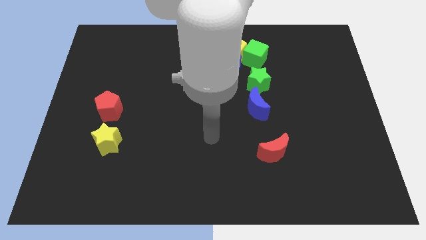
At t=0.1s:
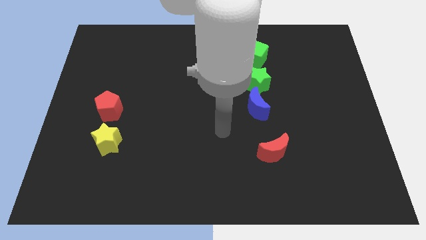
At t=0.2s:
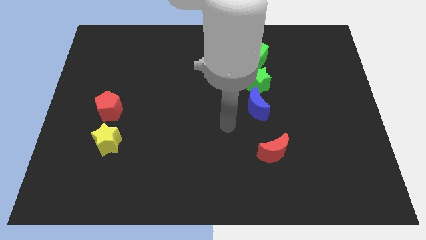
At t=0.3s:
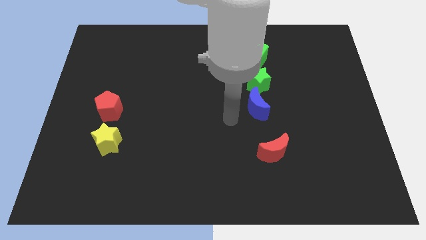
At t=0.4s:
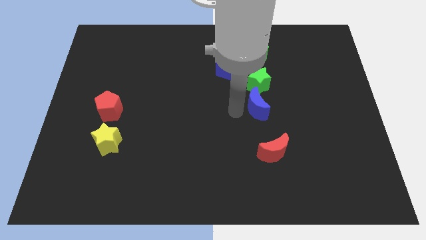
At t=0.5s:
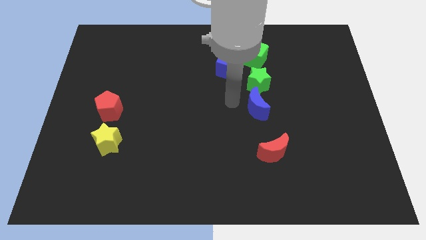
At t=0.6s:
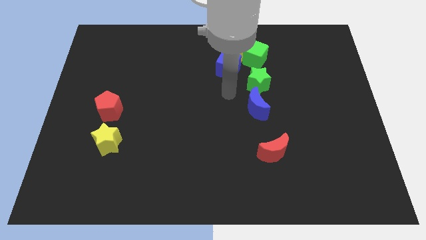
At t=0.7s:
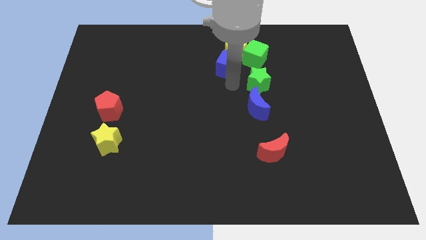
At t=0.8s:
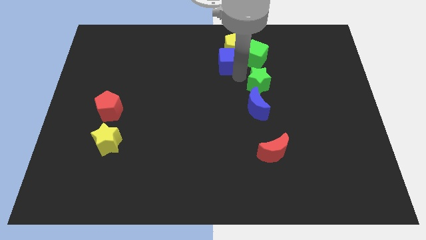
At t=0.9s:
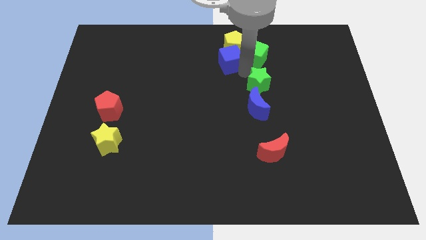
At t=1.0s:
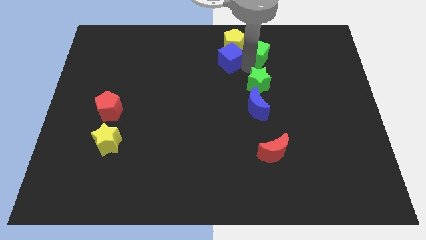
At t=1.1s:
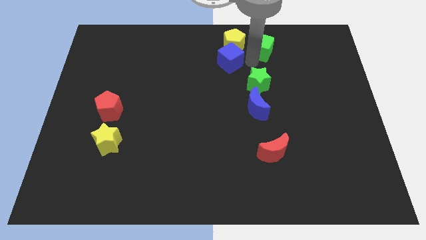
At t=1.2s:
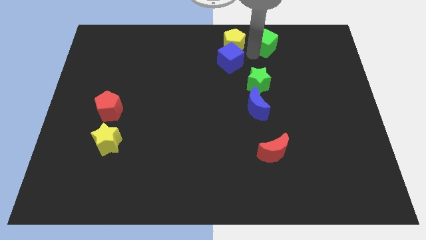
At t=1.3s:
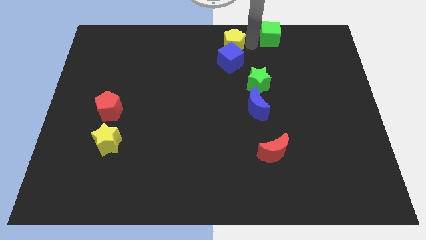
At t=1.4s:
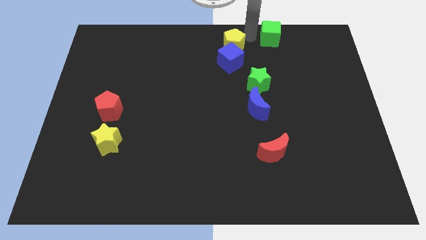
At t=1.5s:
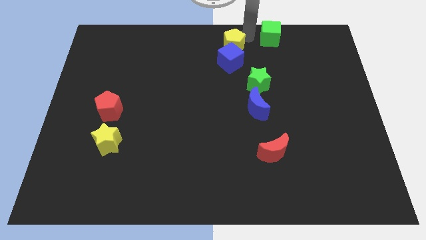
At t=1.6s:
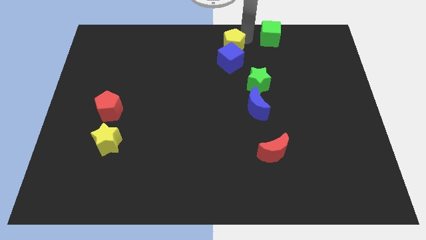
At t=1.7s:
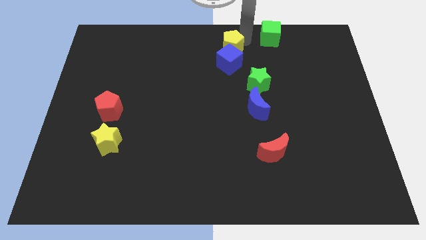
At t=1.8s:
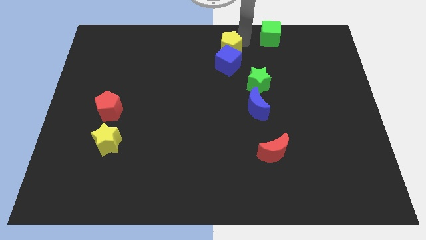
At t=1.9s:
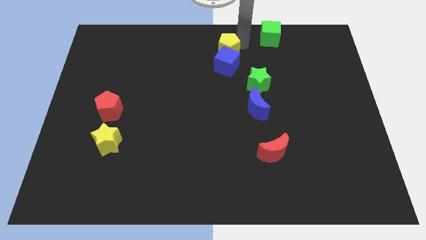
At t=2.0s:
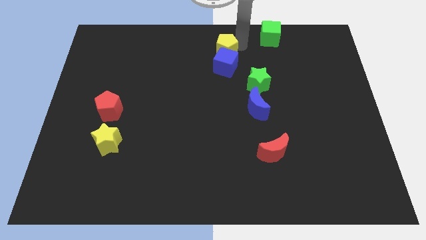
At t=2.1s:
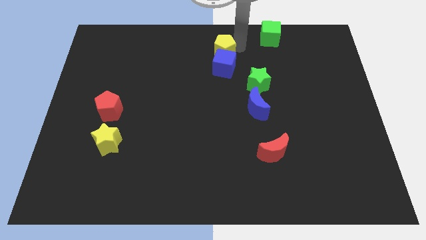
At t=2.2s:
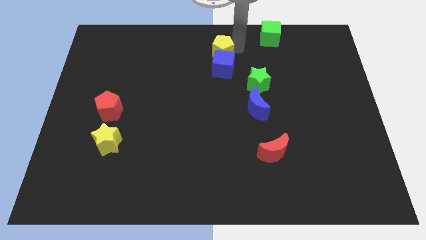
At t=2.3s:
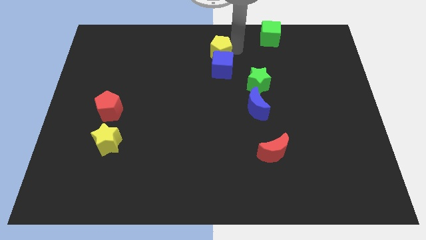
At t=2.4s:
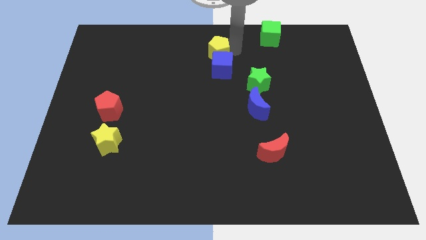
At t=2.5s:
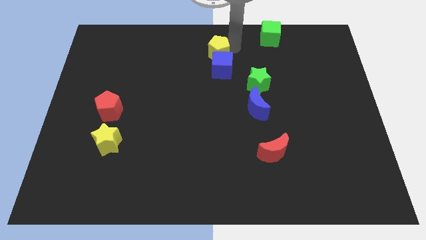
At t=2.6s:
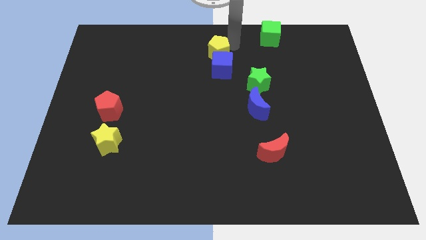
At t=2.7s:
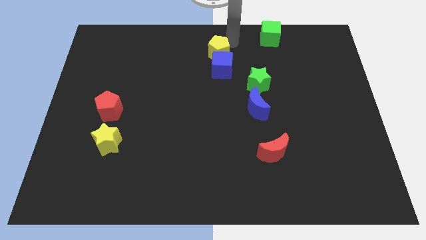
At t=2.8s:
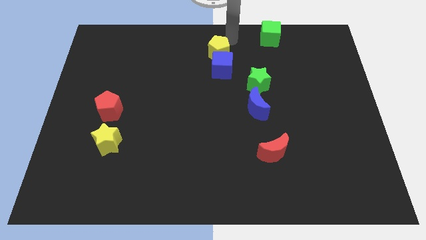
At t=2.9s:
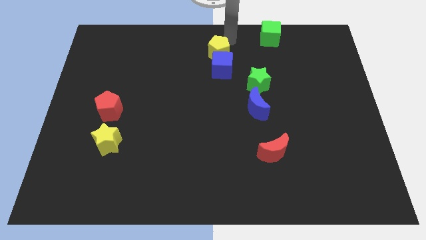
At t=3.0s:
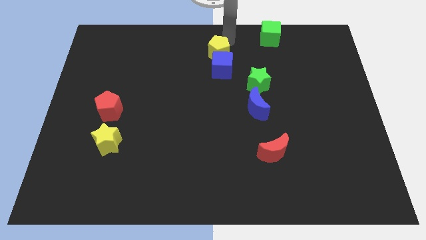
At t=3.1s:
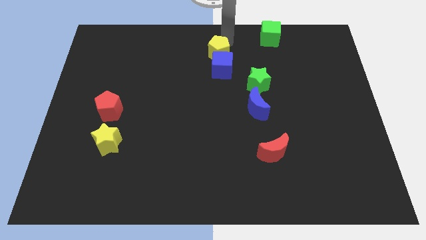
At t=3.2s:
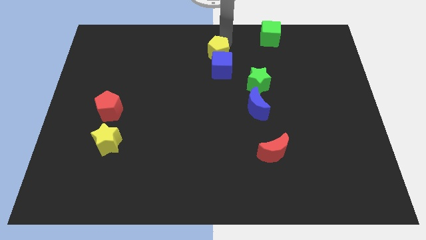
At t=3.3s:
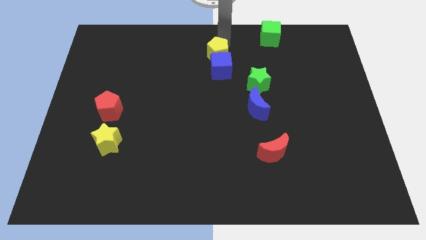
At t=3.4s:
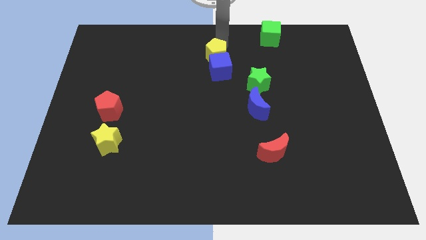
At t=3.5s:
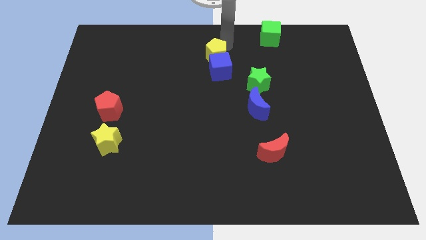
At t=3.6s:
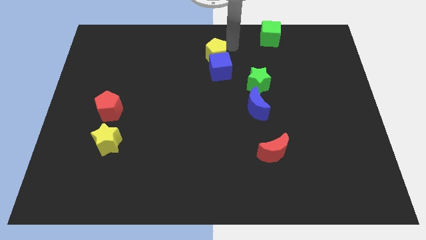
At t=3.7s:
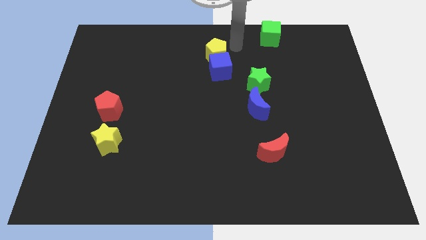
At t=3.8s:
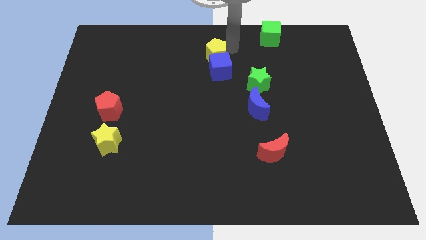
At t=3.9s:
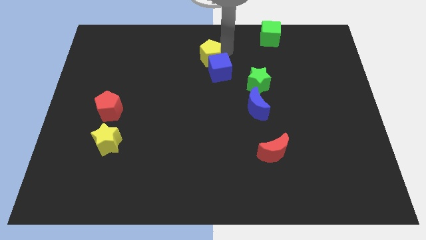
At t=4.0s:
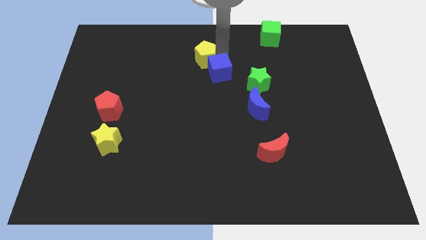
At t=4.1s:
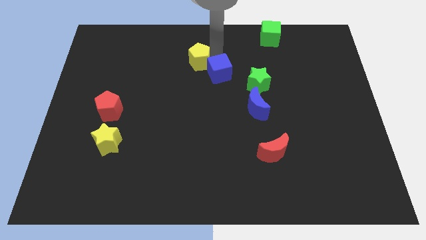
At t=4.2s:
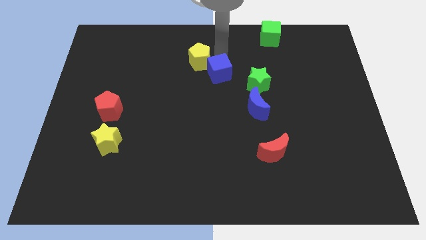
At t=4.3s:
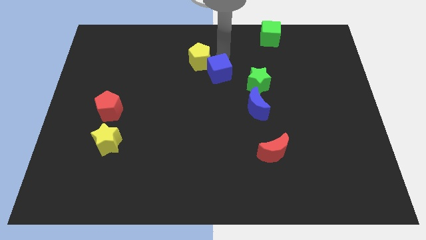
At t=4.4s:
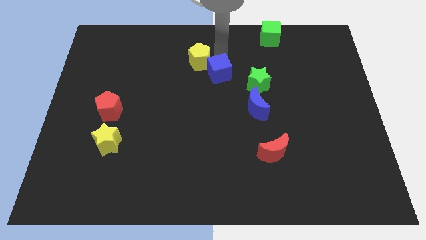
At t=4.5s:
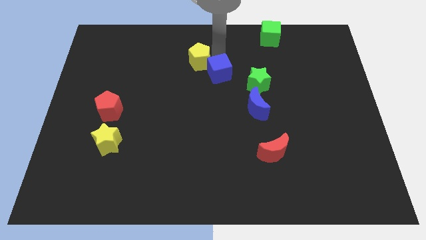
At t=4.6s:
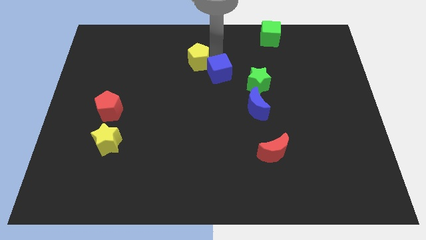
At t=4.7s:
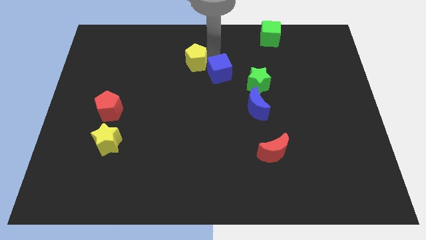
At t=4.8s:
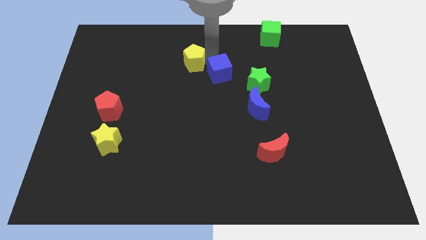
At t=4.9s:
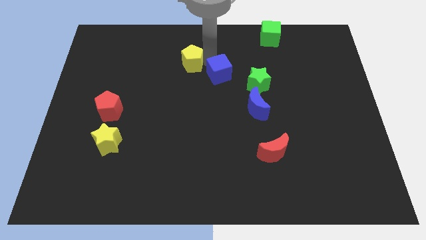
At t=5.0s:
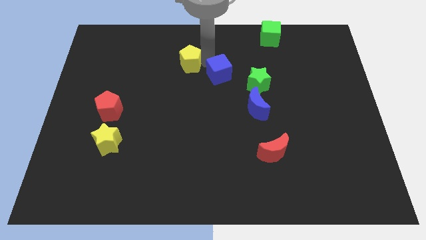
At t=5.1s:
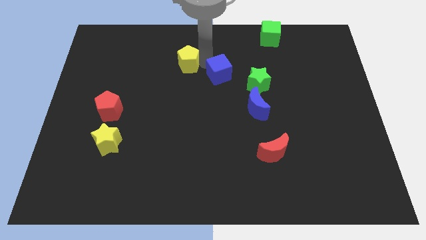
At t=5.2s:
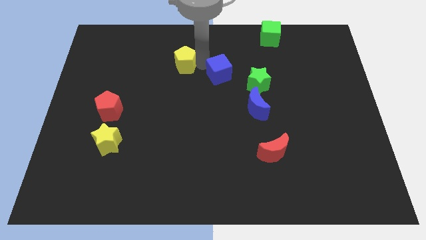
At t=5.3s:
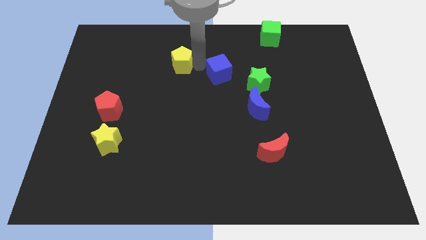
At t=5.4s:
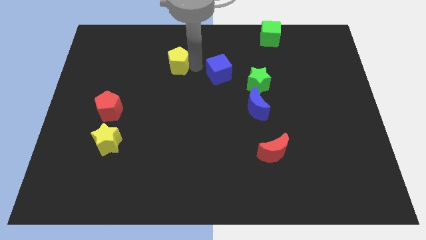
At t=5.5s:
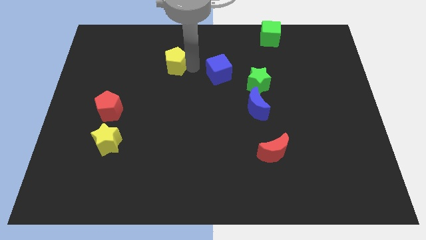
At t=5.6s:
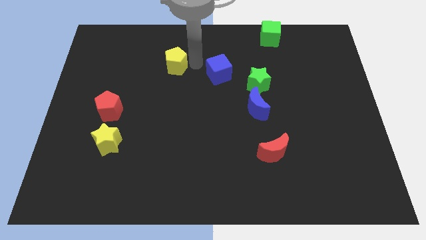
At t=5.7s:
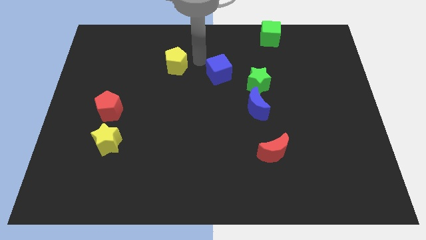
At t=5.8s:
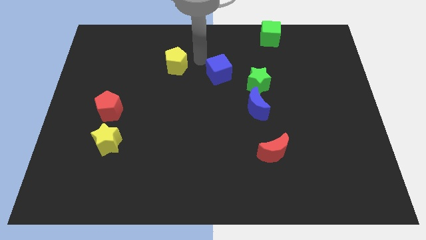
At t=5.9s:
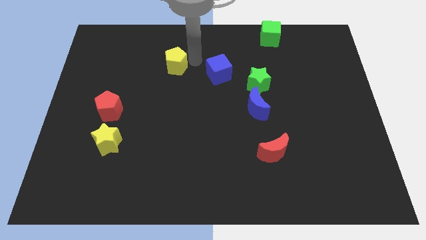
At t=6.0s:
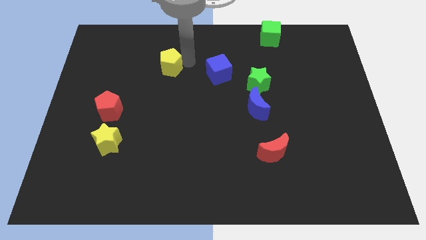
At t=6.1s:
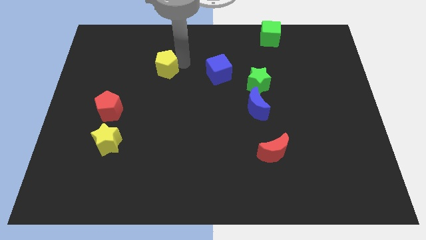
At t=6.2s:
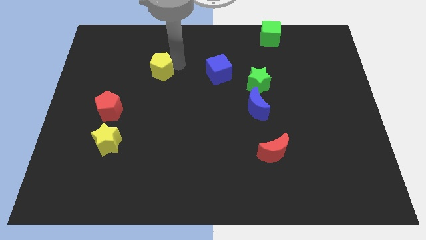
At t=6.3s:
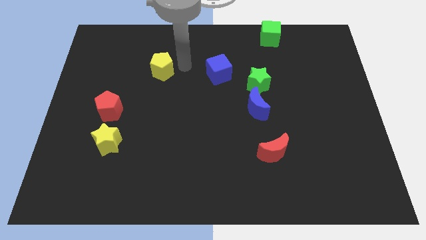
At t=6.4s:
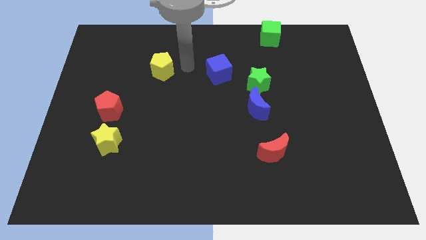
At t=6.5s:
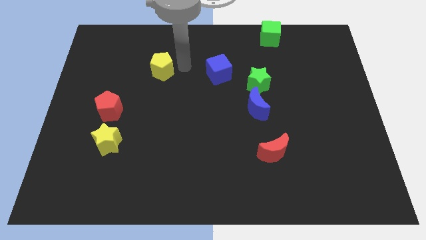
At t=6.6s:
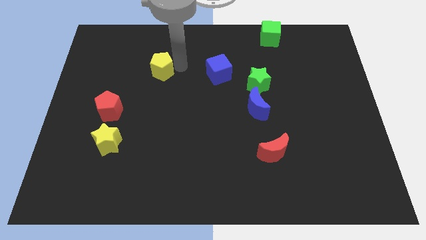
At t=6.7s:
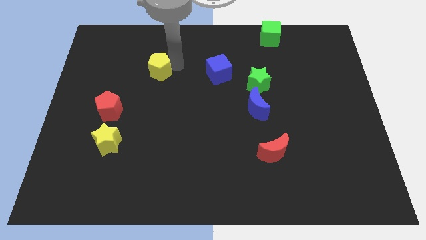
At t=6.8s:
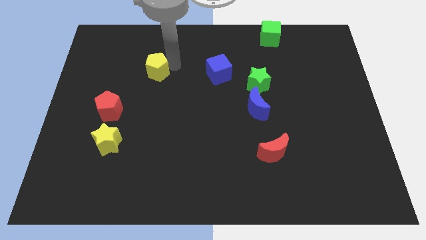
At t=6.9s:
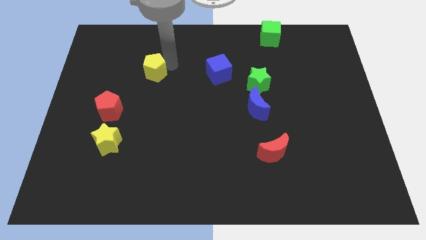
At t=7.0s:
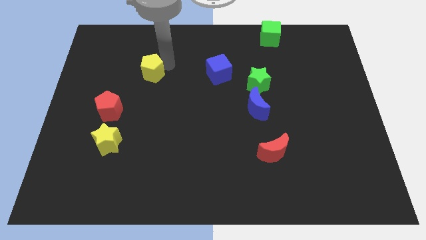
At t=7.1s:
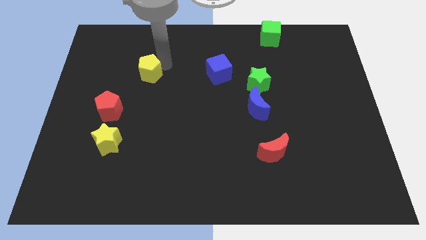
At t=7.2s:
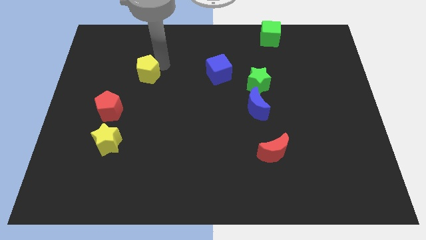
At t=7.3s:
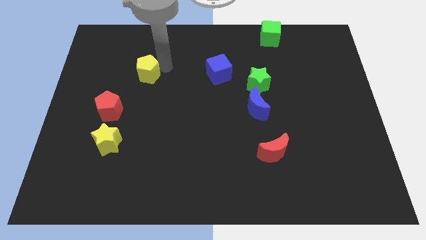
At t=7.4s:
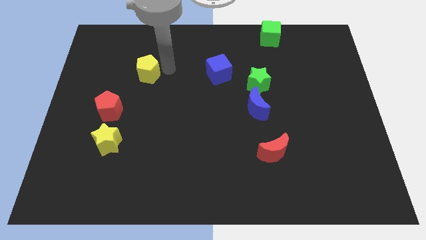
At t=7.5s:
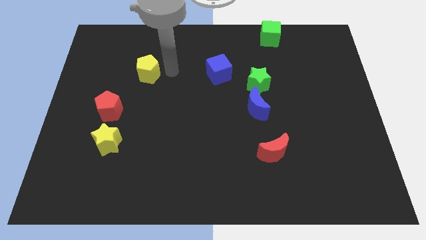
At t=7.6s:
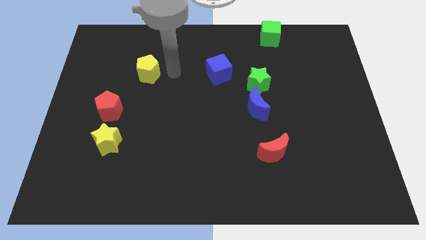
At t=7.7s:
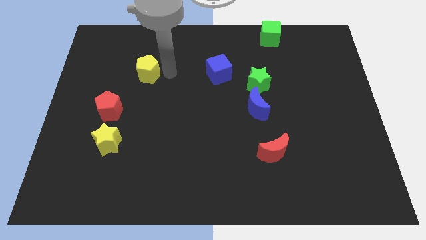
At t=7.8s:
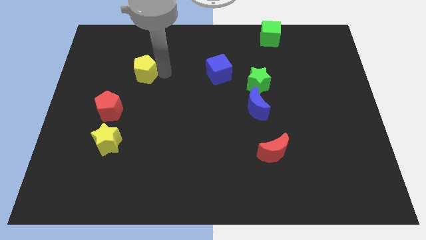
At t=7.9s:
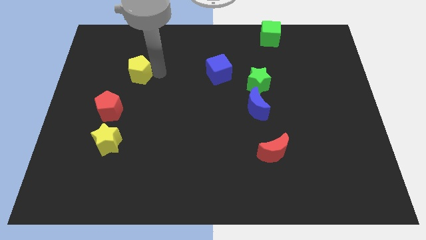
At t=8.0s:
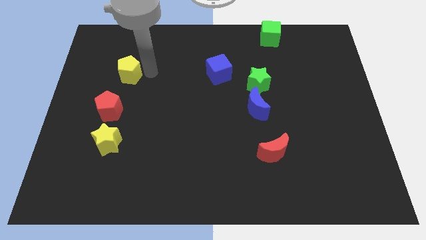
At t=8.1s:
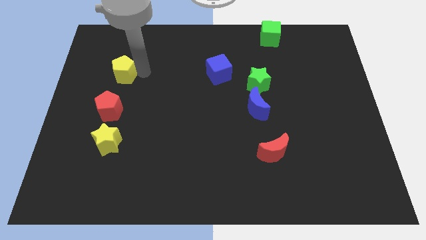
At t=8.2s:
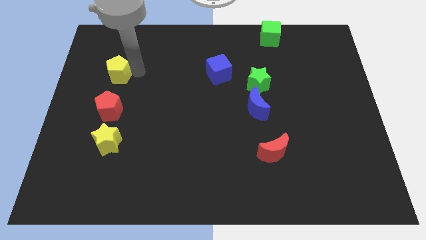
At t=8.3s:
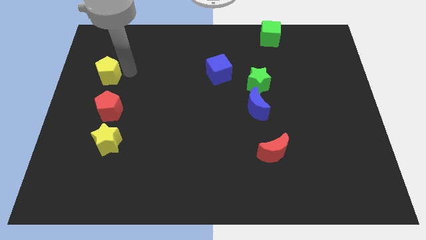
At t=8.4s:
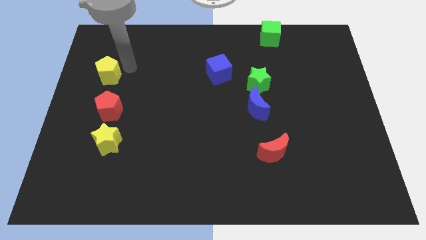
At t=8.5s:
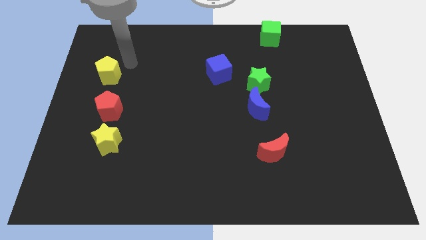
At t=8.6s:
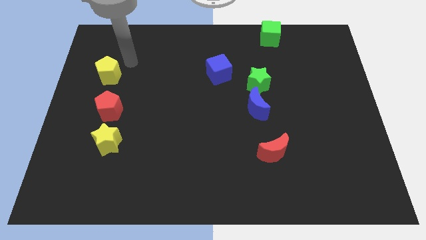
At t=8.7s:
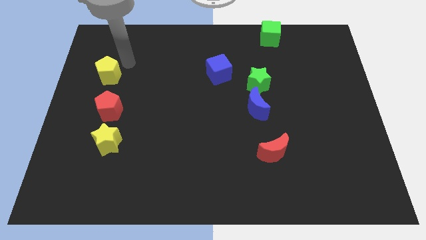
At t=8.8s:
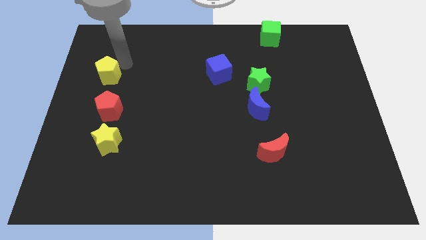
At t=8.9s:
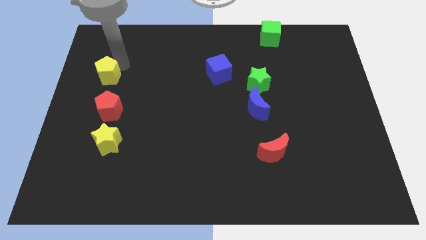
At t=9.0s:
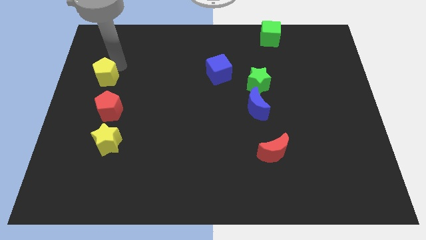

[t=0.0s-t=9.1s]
move the yellow pentagon to the left side of the board
